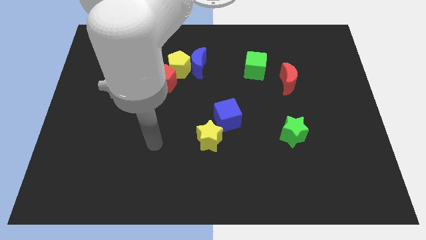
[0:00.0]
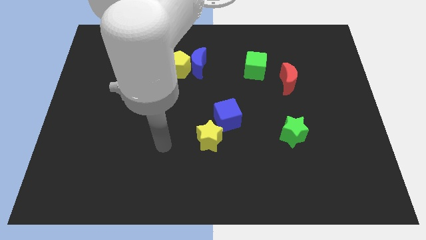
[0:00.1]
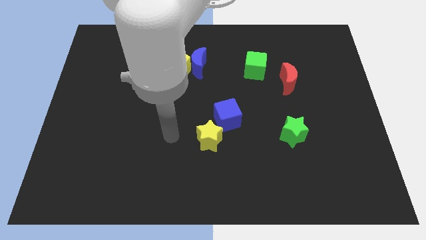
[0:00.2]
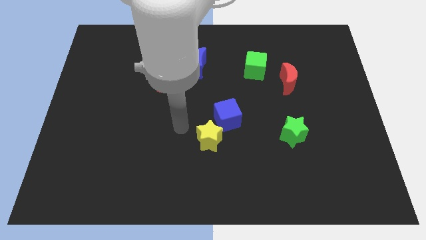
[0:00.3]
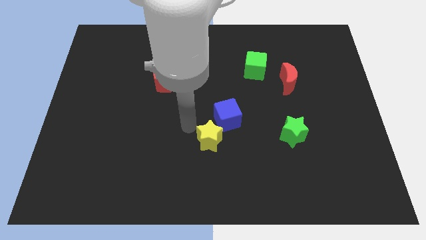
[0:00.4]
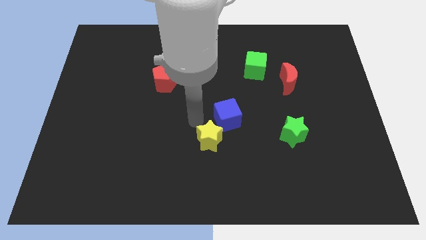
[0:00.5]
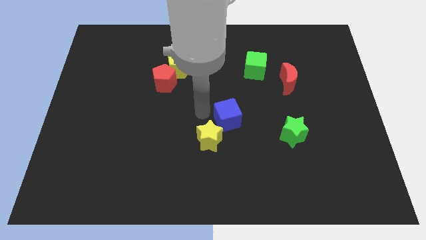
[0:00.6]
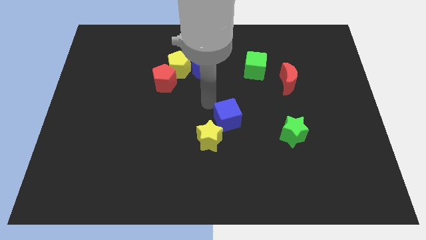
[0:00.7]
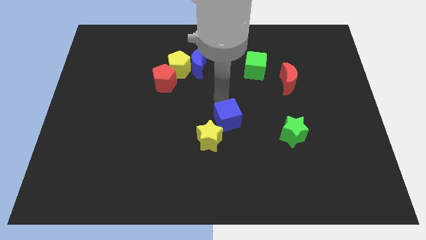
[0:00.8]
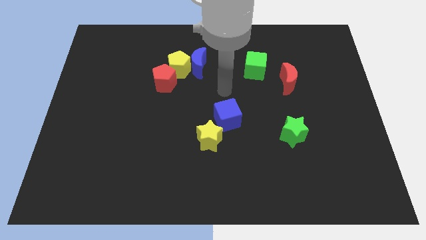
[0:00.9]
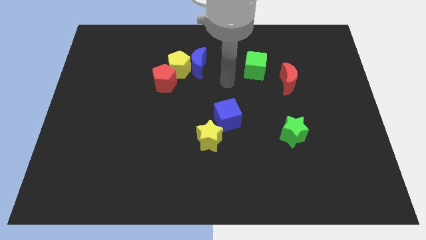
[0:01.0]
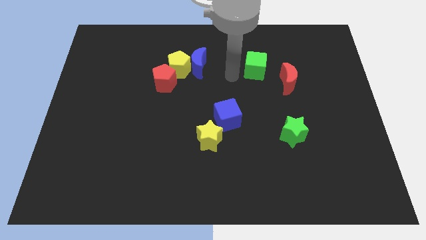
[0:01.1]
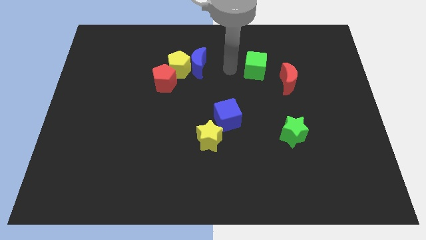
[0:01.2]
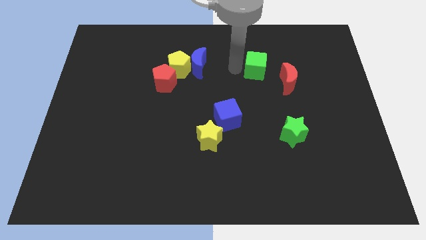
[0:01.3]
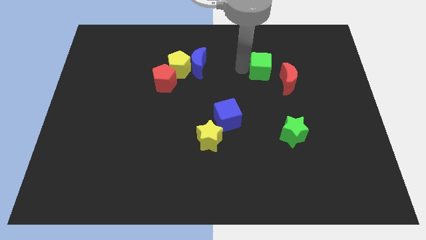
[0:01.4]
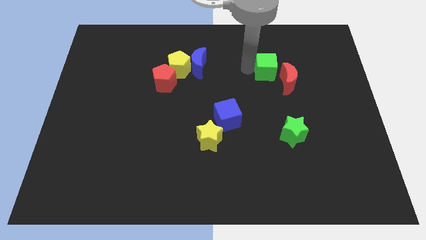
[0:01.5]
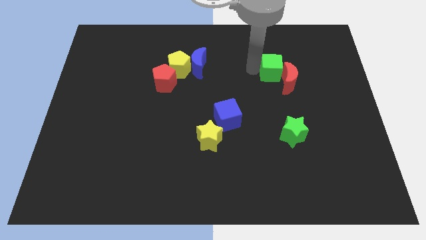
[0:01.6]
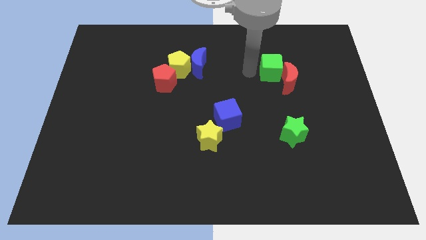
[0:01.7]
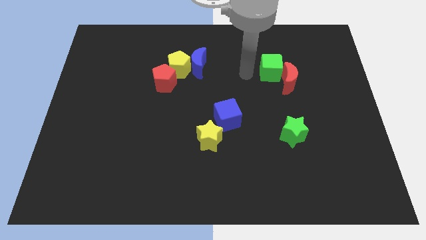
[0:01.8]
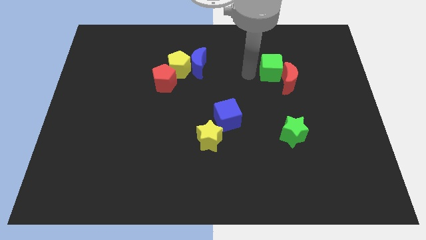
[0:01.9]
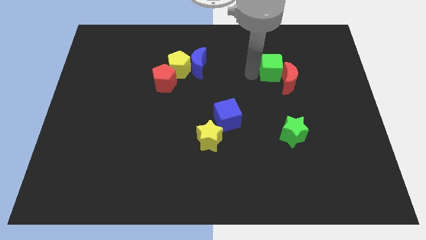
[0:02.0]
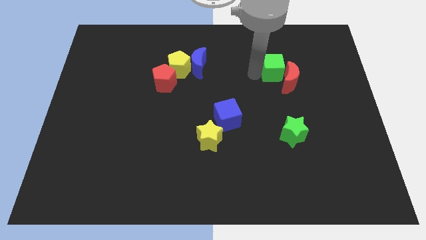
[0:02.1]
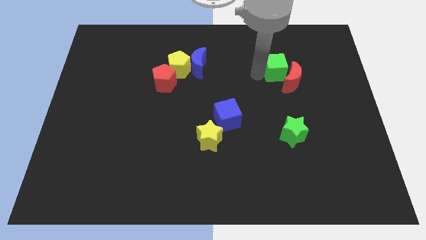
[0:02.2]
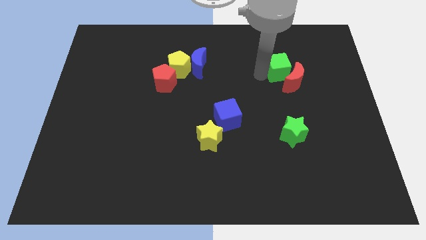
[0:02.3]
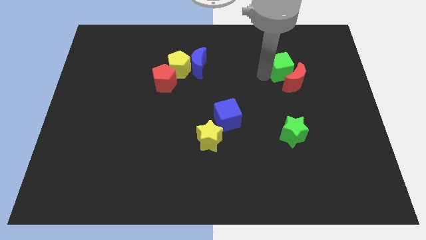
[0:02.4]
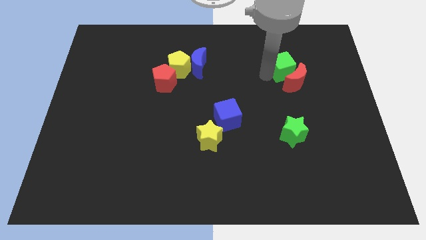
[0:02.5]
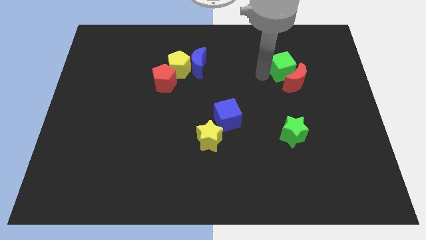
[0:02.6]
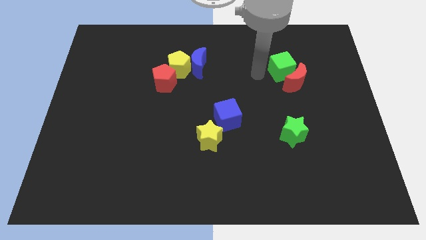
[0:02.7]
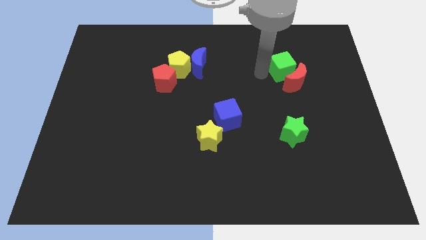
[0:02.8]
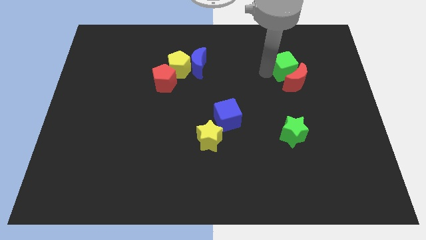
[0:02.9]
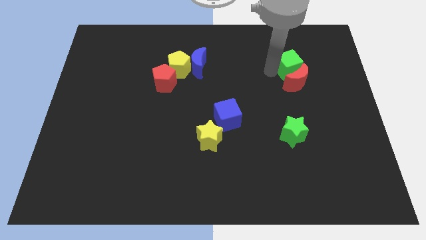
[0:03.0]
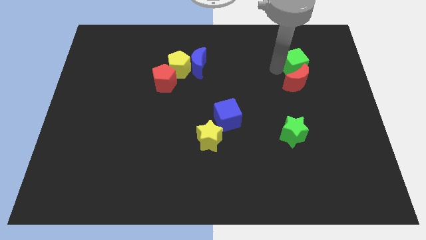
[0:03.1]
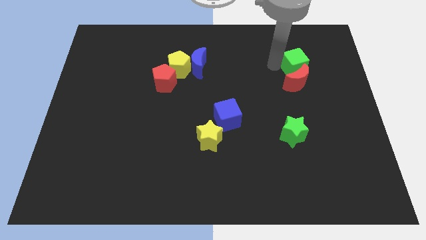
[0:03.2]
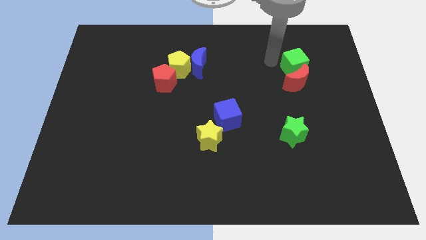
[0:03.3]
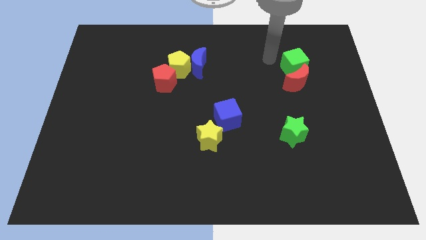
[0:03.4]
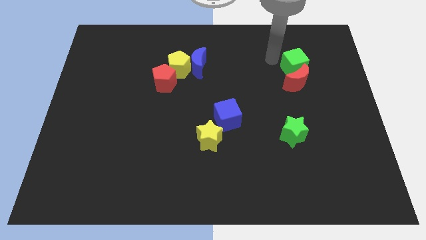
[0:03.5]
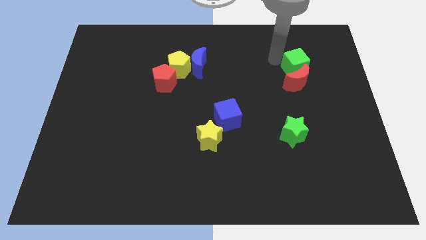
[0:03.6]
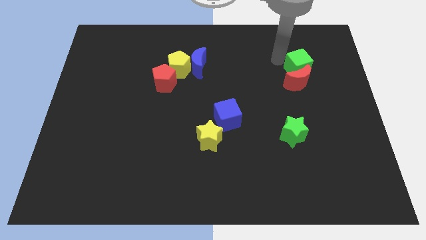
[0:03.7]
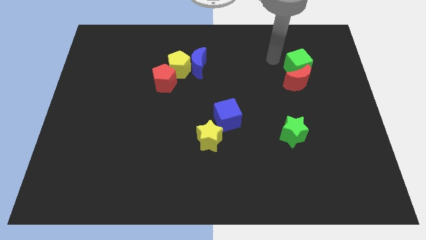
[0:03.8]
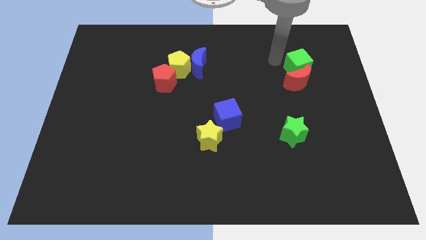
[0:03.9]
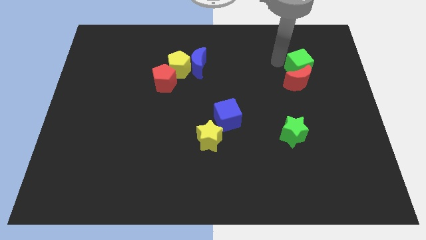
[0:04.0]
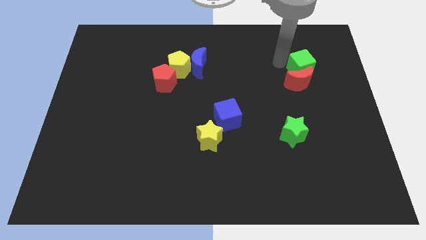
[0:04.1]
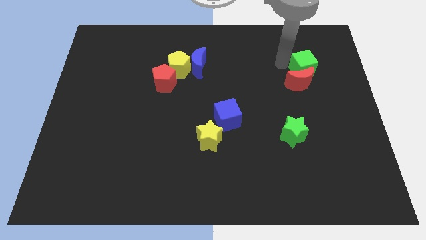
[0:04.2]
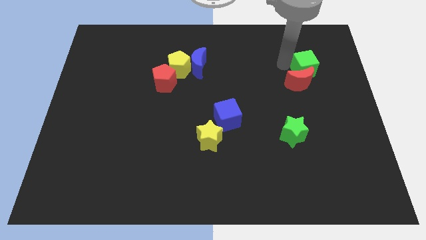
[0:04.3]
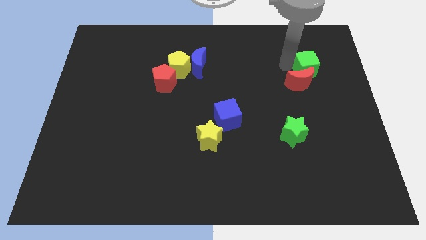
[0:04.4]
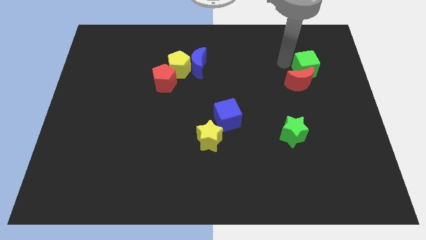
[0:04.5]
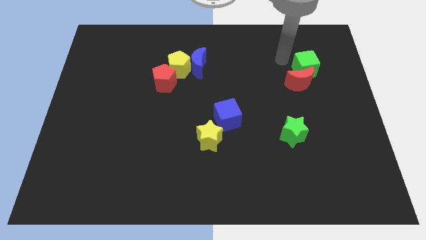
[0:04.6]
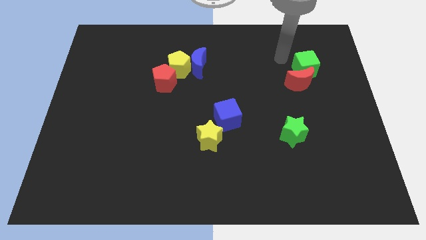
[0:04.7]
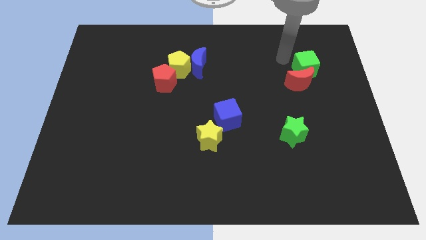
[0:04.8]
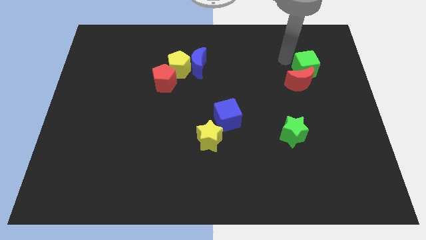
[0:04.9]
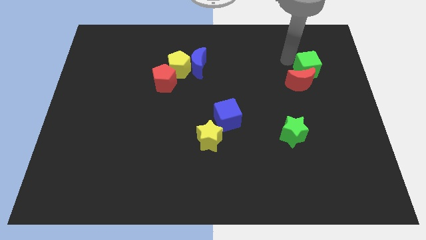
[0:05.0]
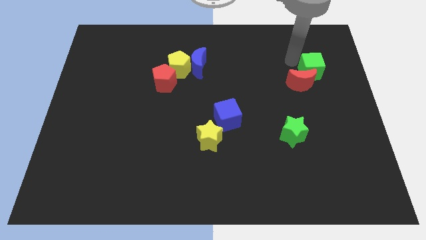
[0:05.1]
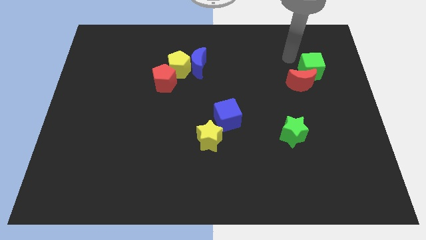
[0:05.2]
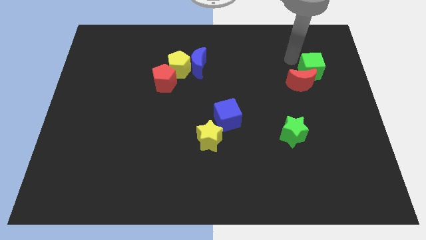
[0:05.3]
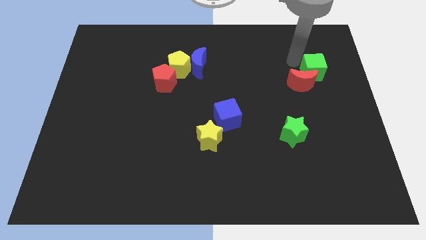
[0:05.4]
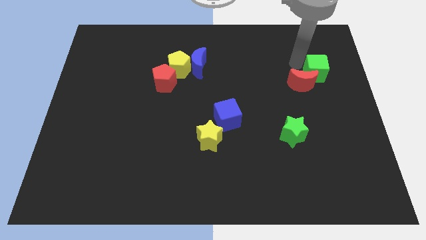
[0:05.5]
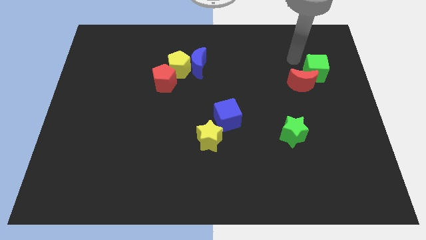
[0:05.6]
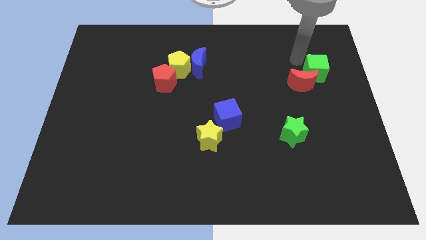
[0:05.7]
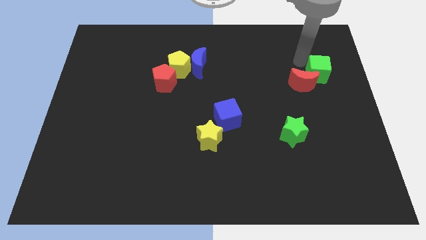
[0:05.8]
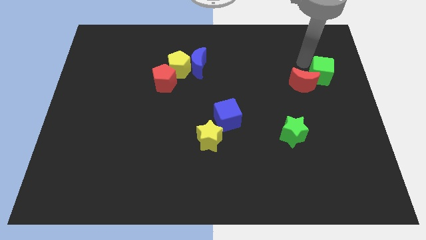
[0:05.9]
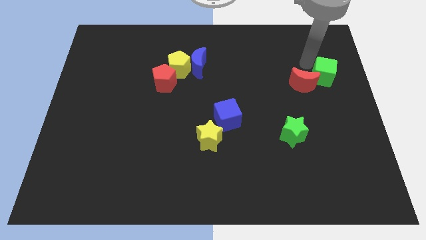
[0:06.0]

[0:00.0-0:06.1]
push the green cube to the right side of the board
